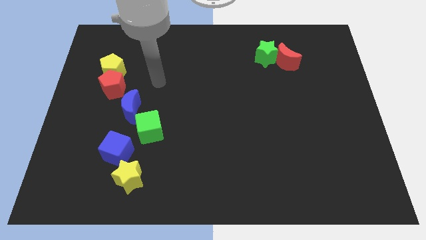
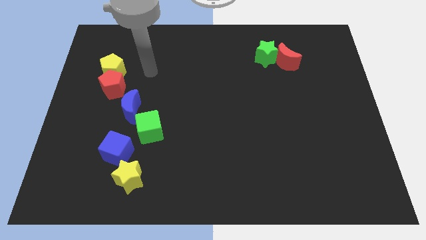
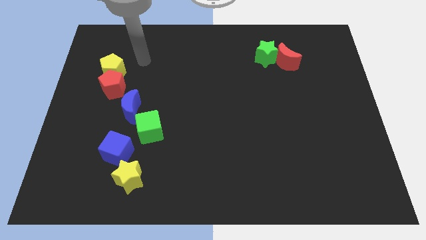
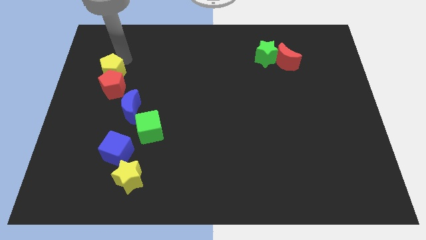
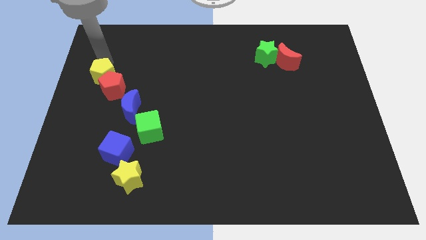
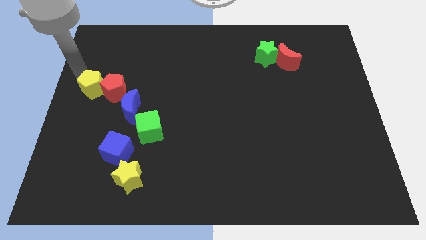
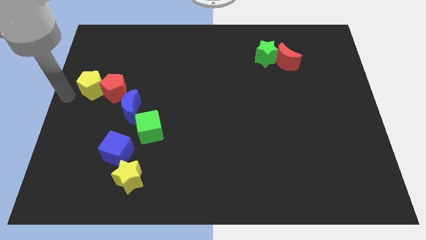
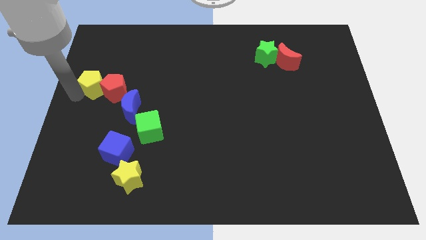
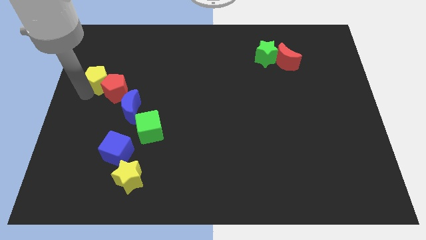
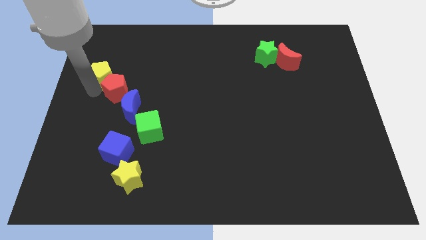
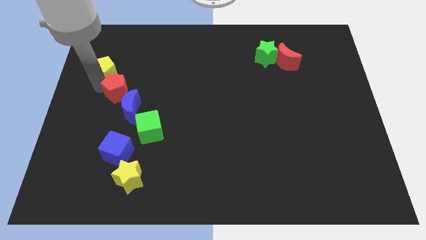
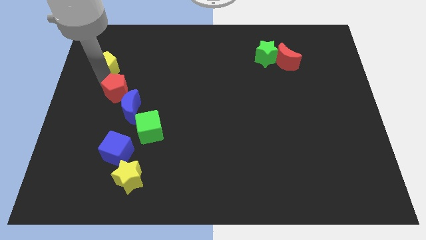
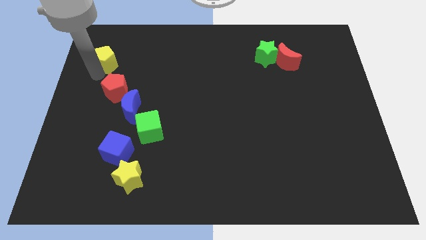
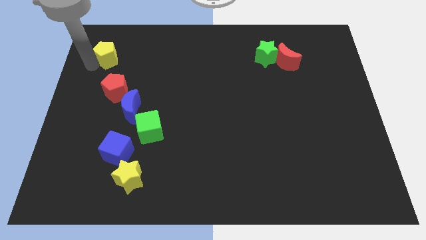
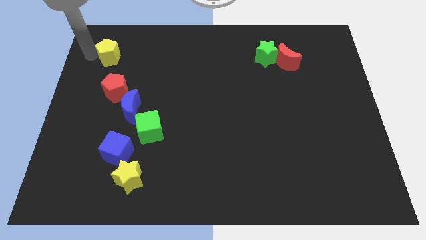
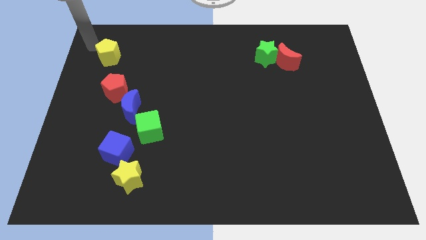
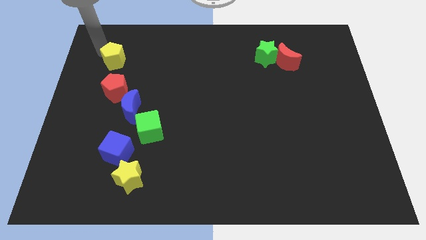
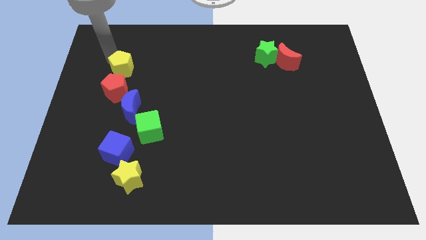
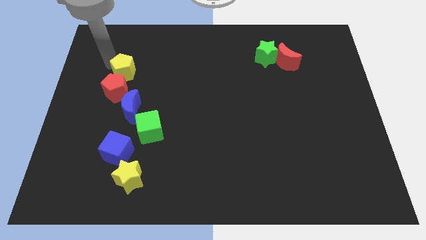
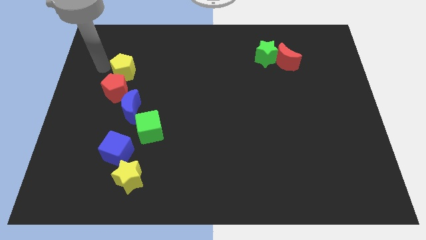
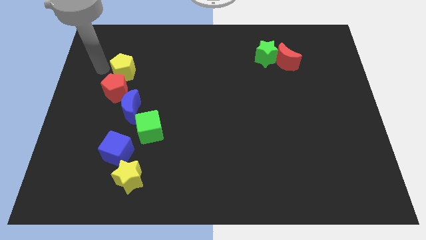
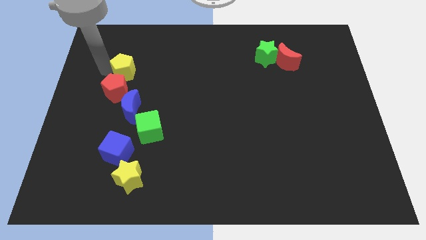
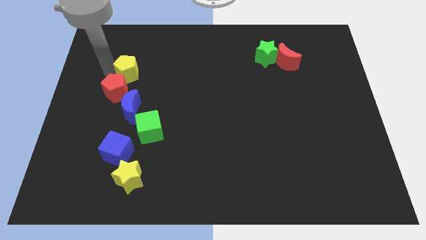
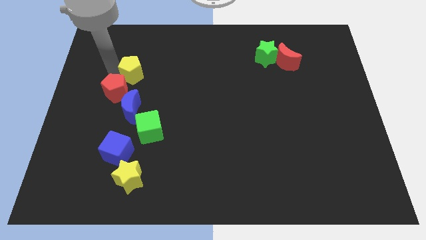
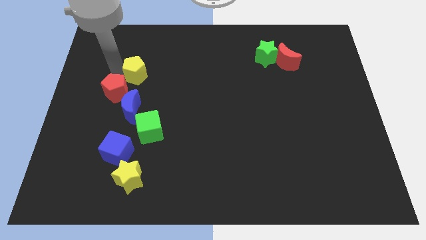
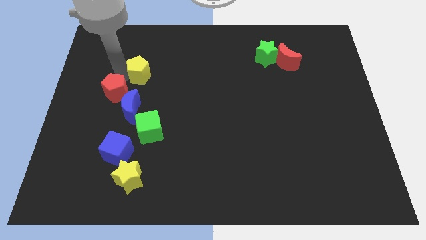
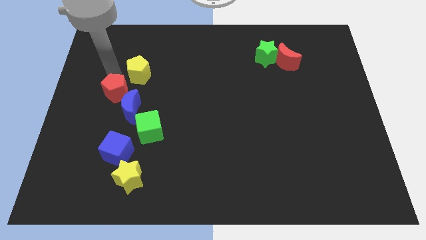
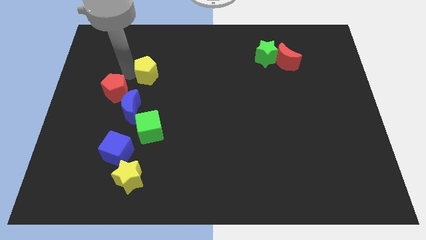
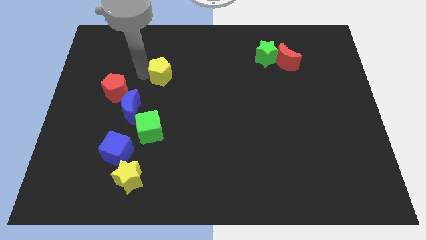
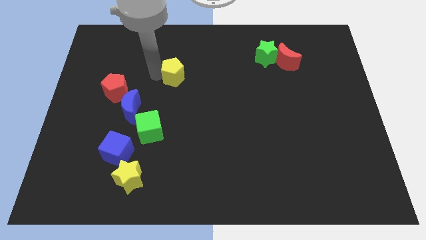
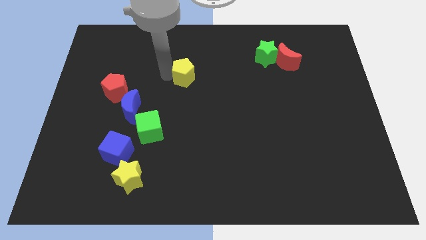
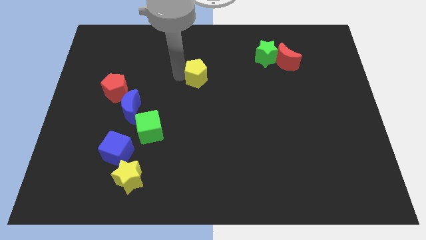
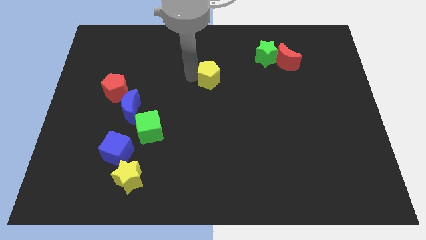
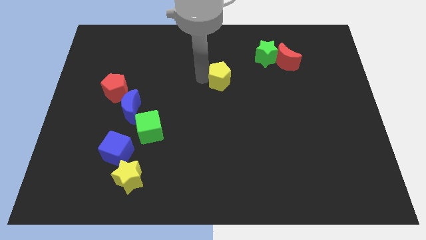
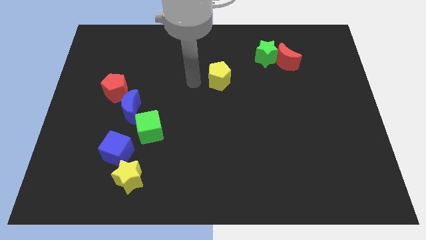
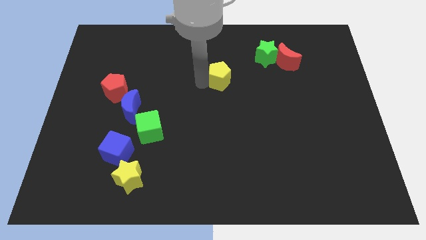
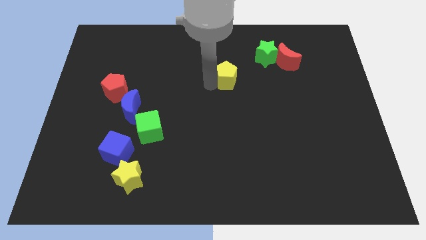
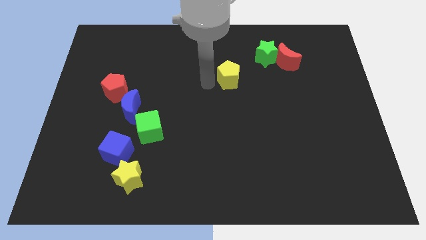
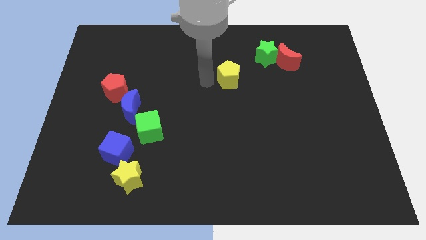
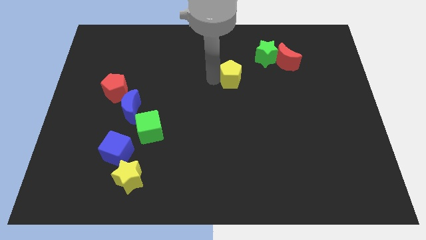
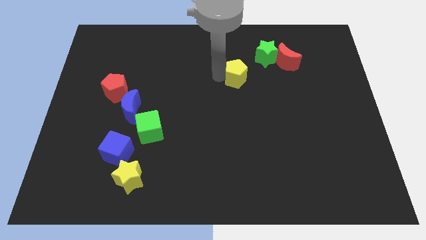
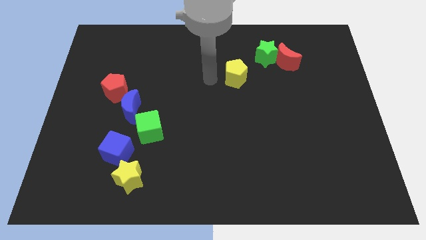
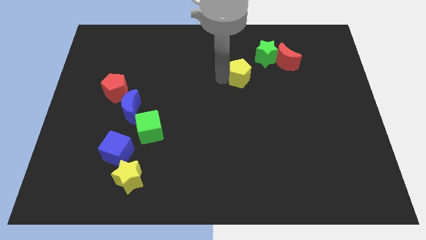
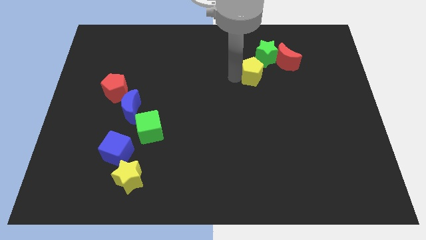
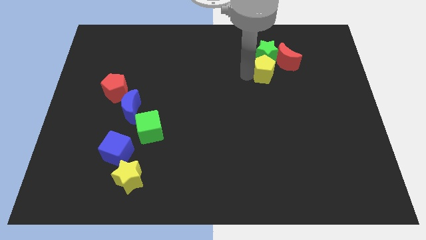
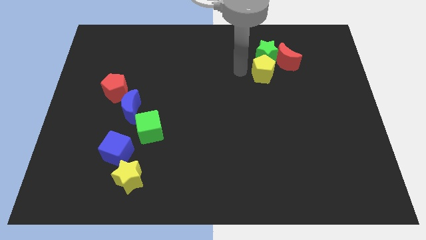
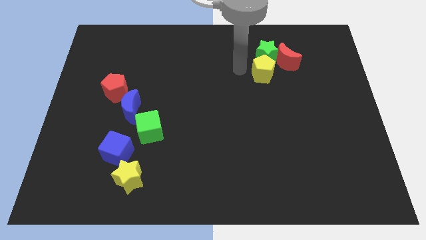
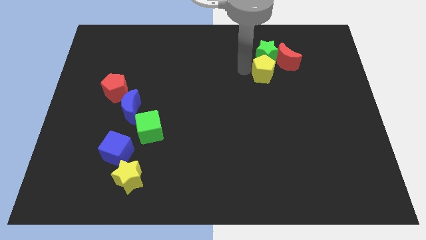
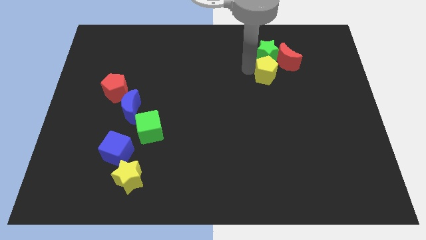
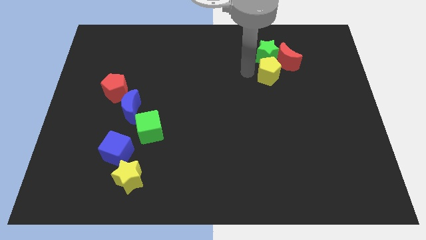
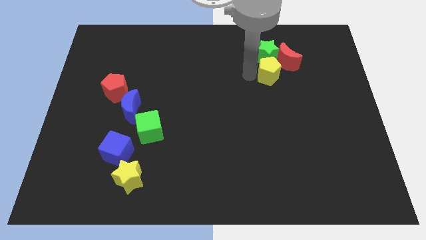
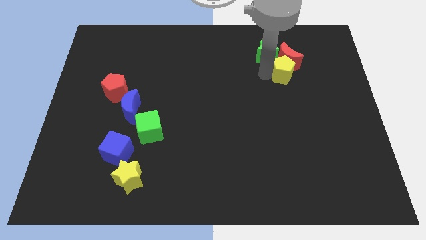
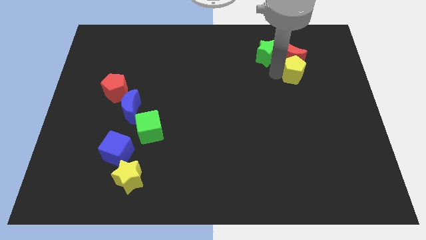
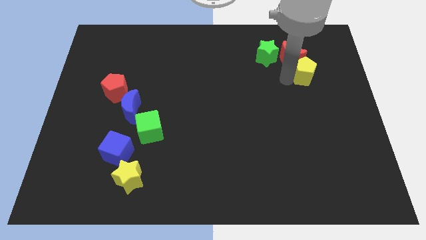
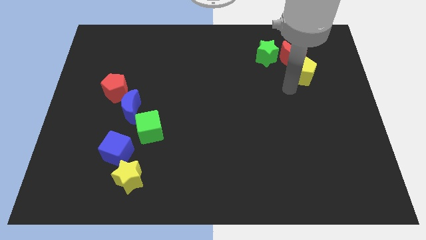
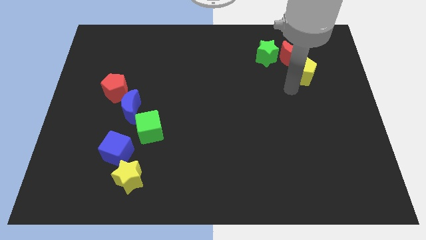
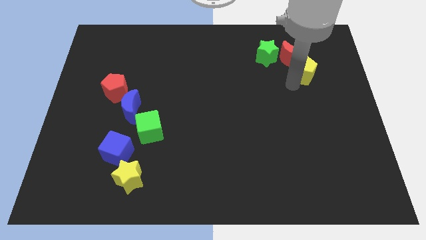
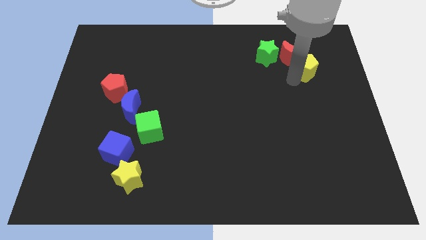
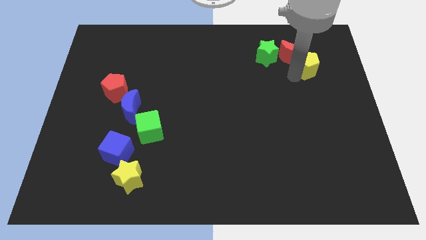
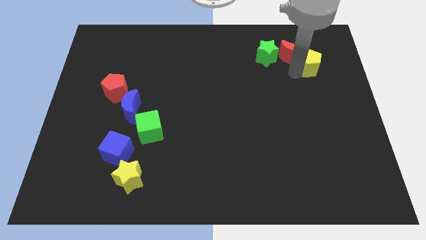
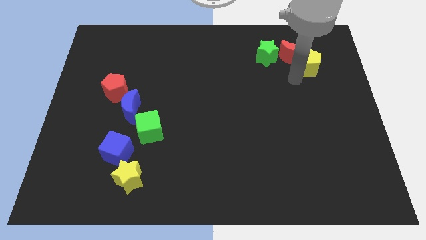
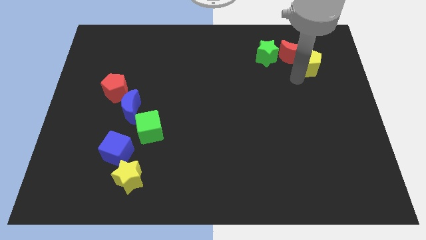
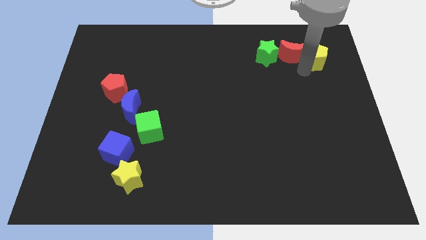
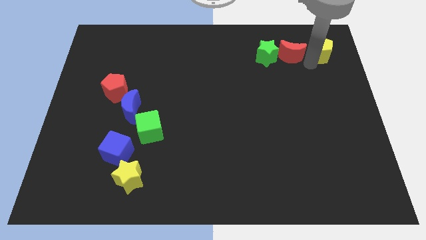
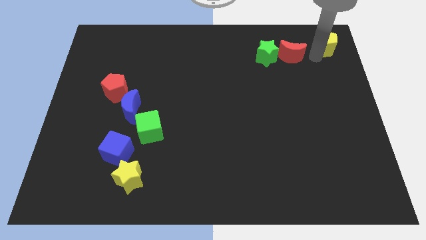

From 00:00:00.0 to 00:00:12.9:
push the yellow pentagon to the upper right corner
